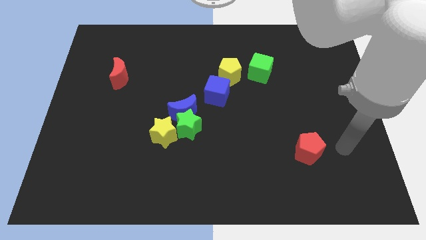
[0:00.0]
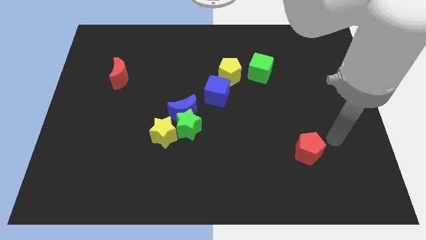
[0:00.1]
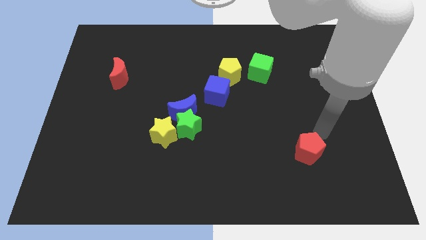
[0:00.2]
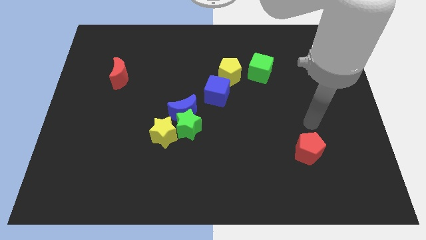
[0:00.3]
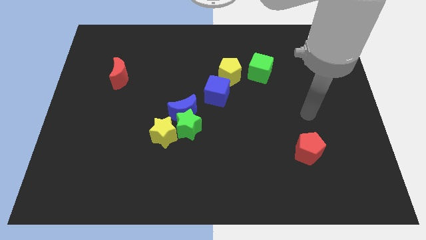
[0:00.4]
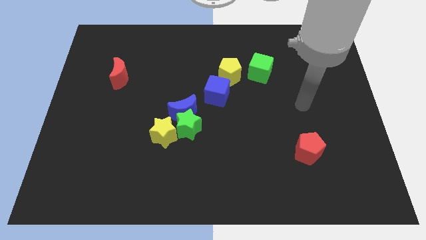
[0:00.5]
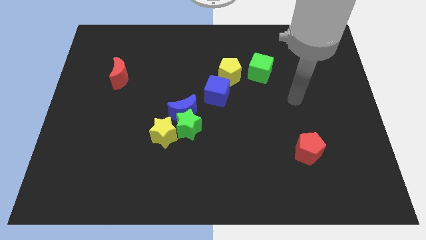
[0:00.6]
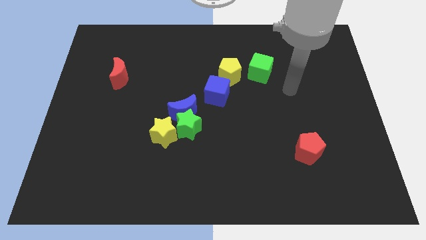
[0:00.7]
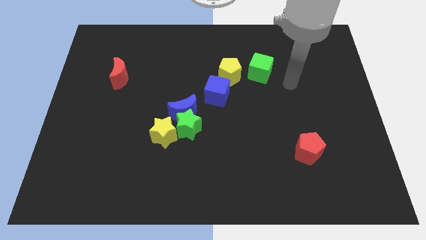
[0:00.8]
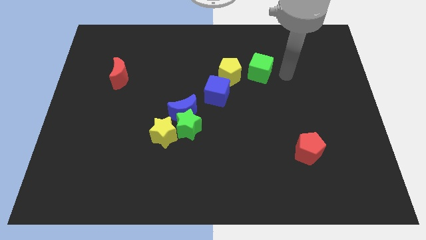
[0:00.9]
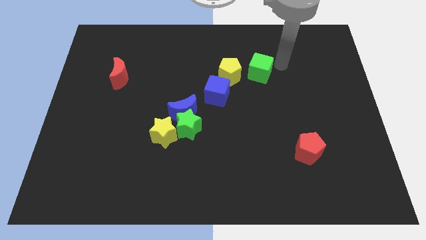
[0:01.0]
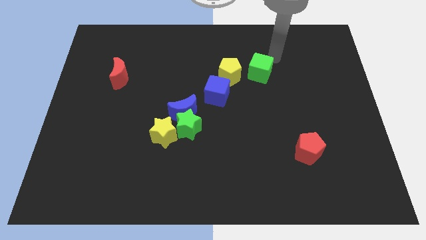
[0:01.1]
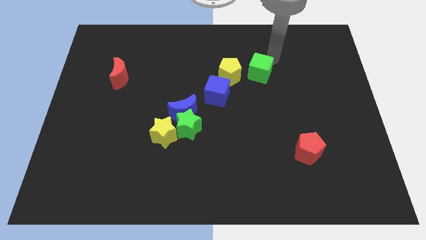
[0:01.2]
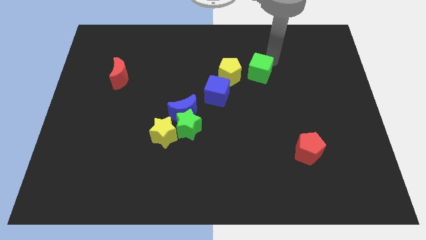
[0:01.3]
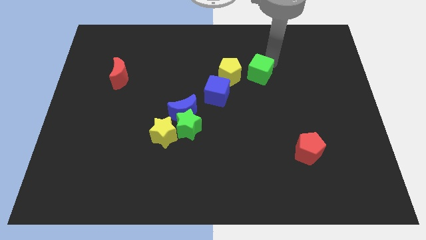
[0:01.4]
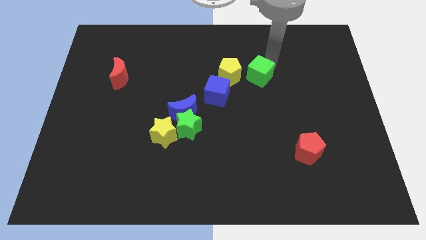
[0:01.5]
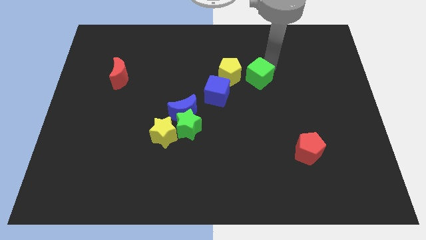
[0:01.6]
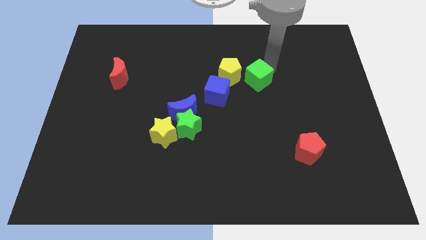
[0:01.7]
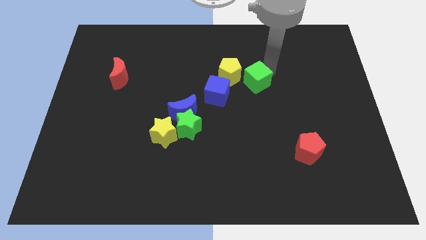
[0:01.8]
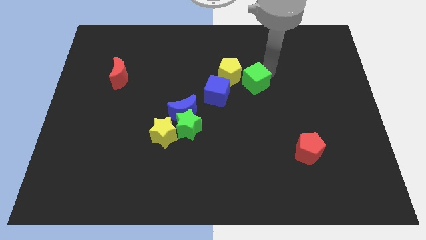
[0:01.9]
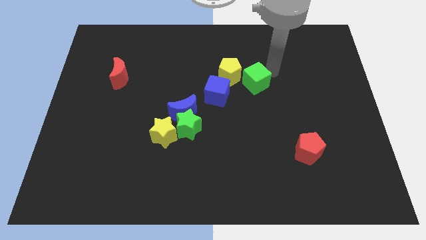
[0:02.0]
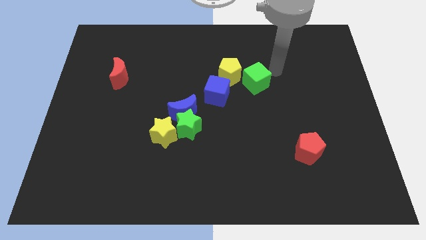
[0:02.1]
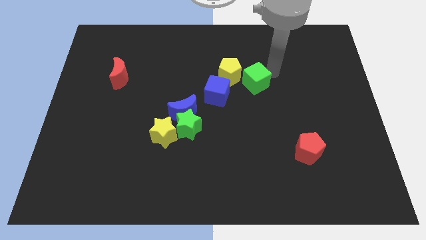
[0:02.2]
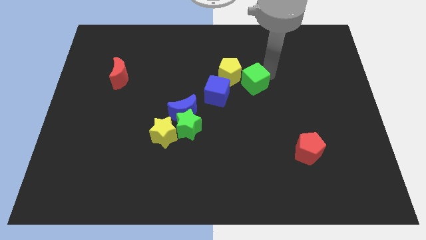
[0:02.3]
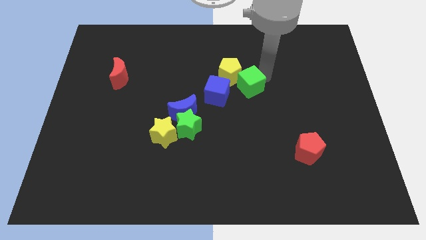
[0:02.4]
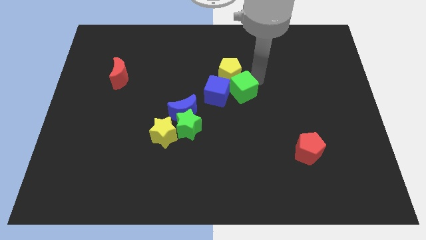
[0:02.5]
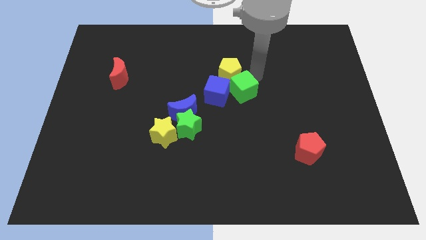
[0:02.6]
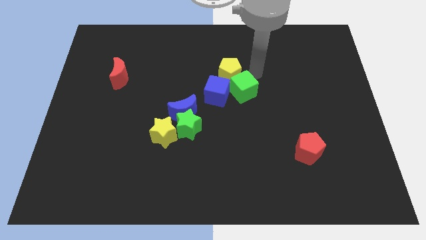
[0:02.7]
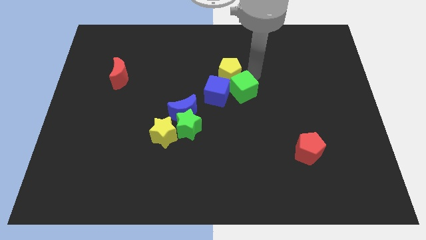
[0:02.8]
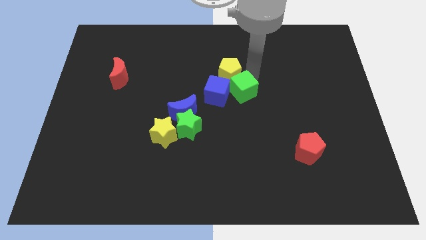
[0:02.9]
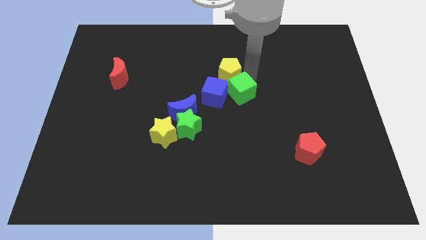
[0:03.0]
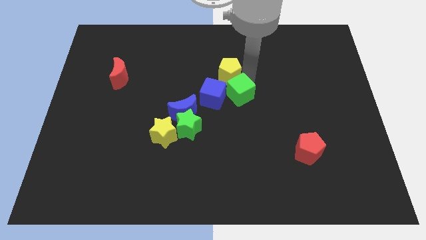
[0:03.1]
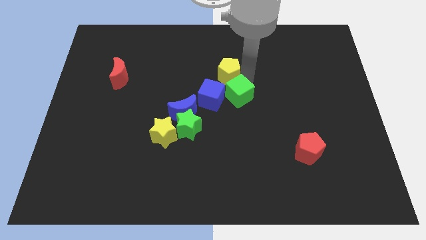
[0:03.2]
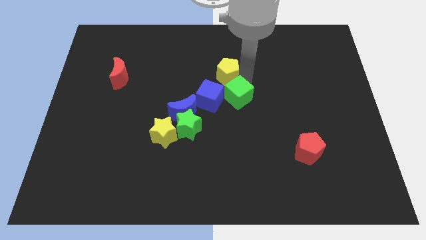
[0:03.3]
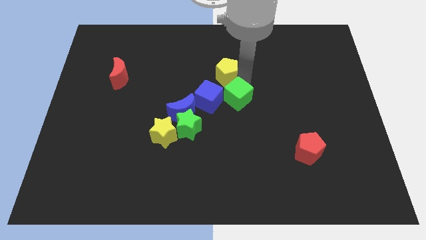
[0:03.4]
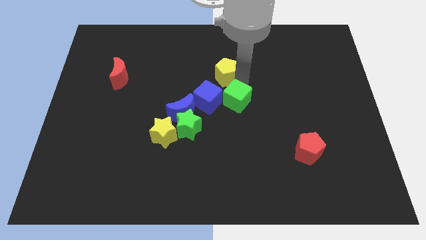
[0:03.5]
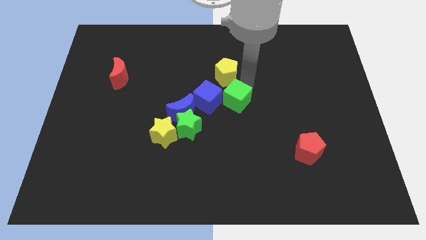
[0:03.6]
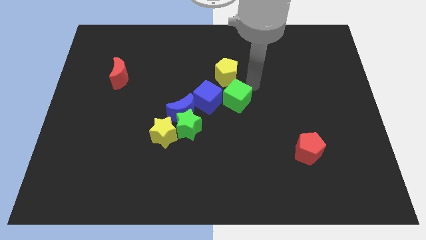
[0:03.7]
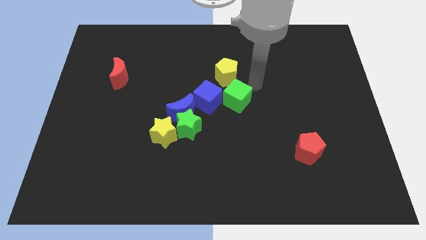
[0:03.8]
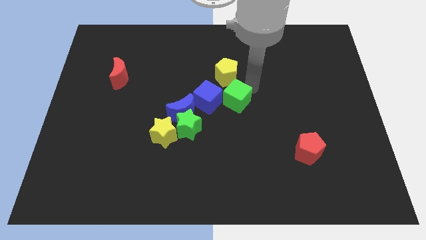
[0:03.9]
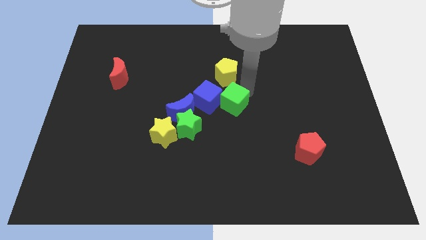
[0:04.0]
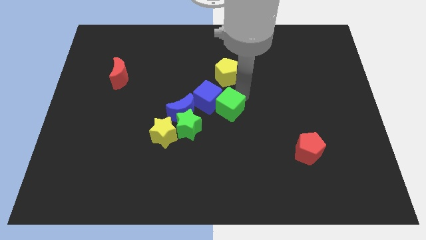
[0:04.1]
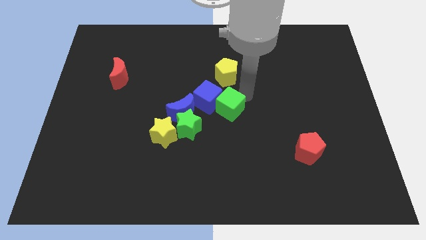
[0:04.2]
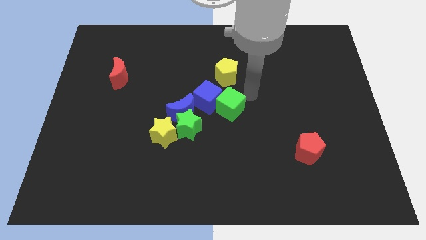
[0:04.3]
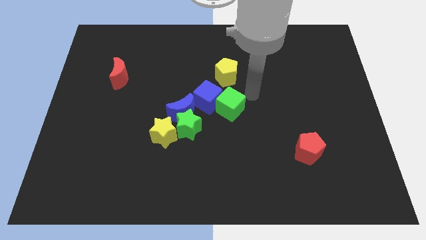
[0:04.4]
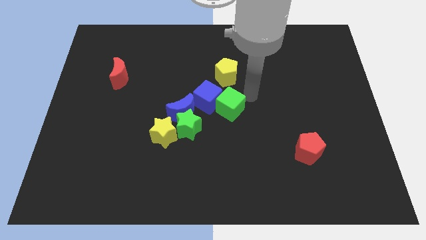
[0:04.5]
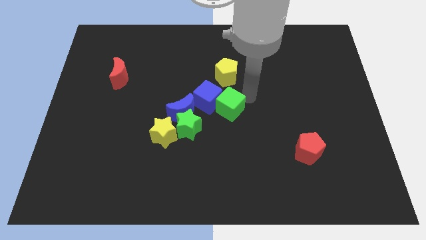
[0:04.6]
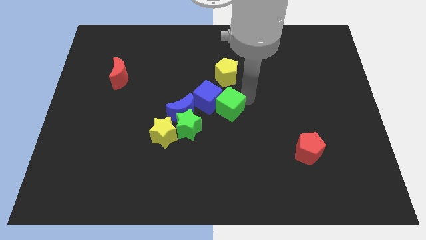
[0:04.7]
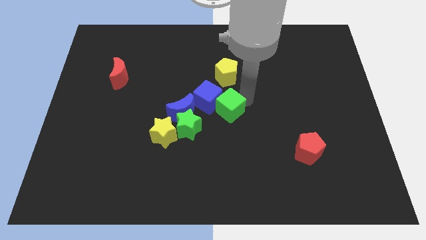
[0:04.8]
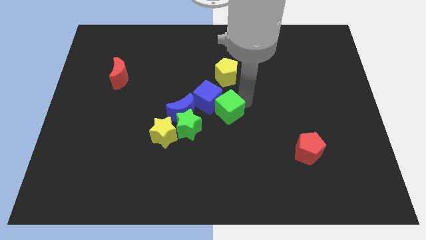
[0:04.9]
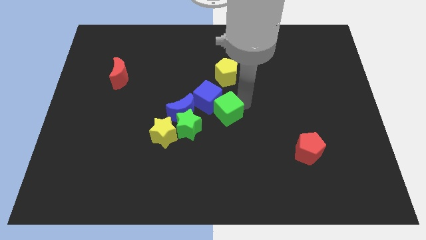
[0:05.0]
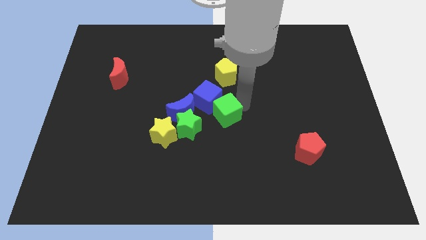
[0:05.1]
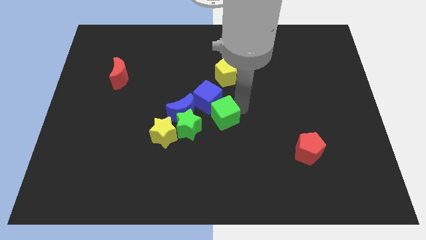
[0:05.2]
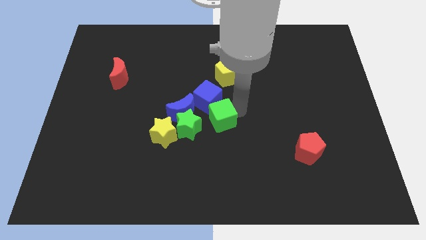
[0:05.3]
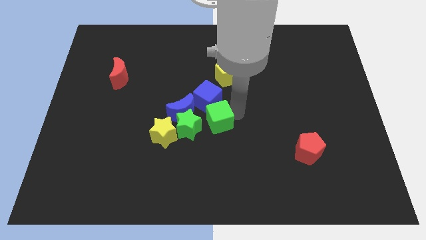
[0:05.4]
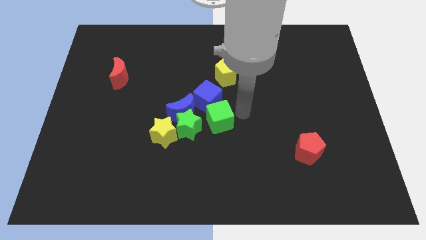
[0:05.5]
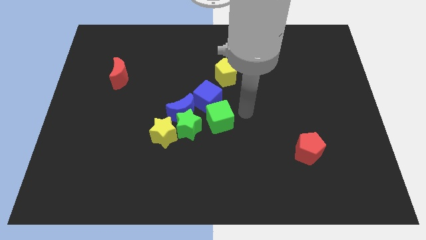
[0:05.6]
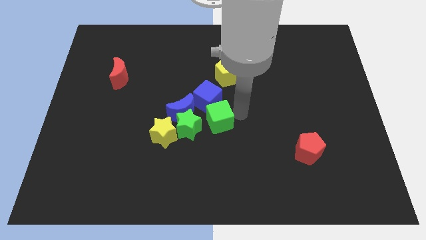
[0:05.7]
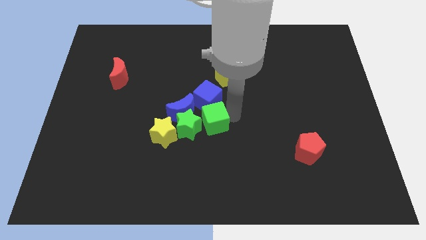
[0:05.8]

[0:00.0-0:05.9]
slide the green cube to the green star

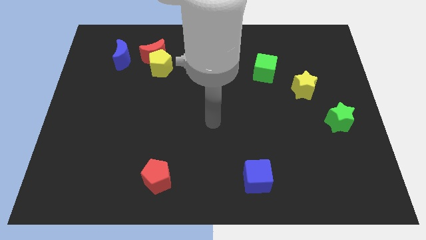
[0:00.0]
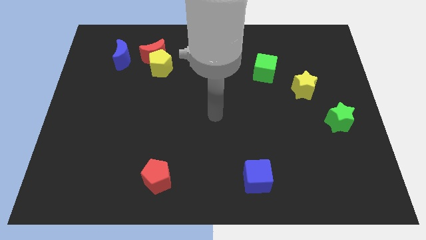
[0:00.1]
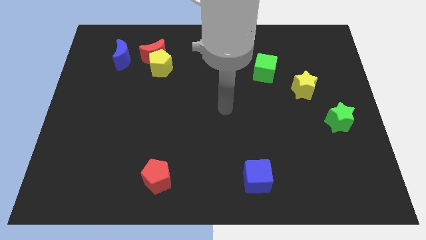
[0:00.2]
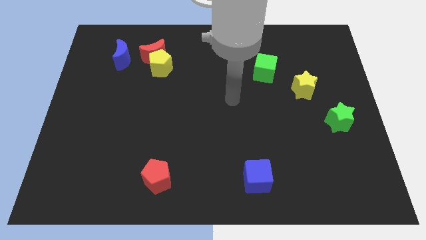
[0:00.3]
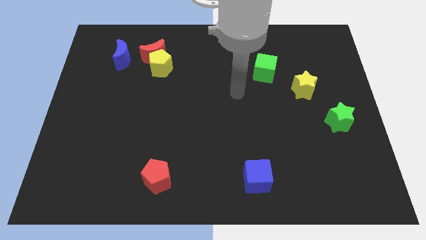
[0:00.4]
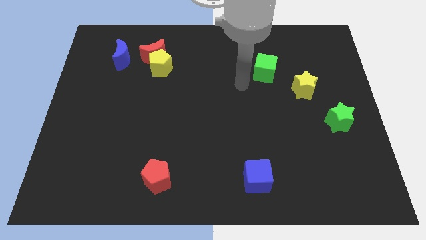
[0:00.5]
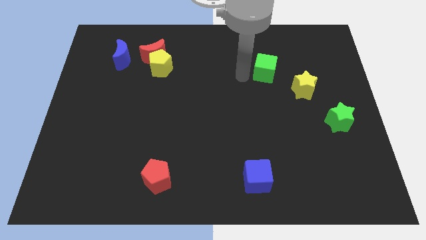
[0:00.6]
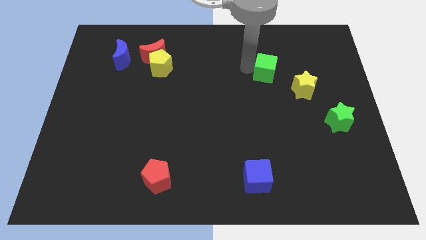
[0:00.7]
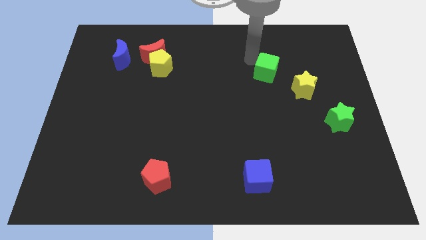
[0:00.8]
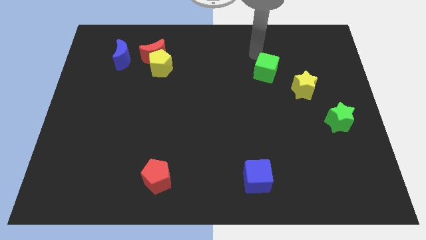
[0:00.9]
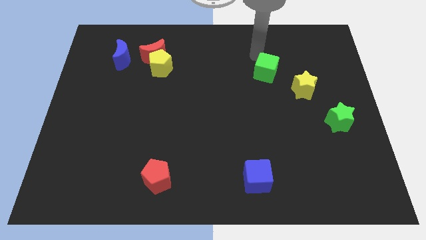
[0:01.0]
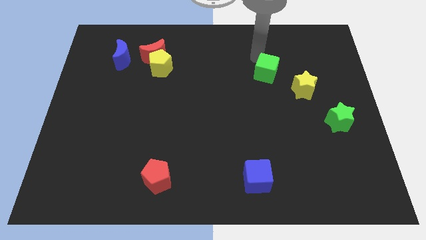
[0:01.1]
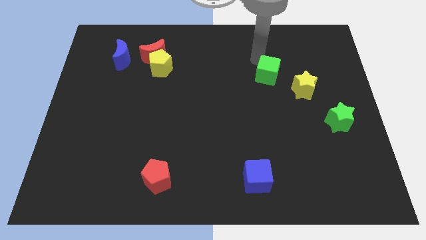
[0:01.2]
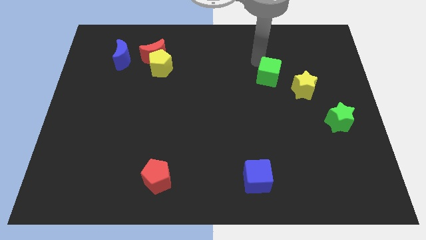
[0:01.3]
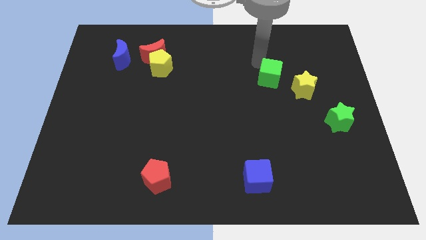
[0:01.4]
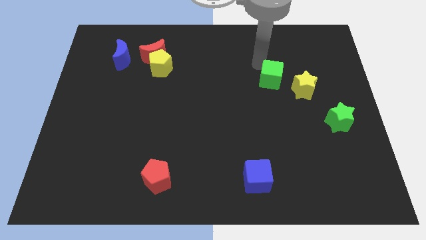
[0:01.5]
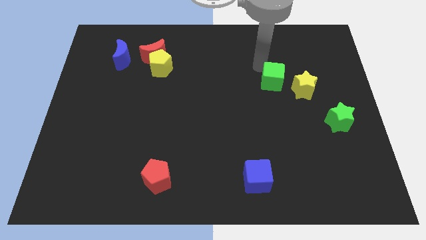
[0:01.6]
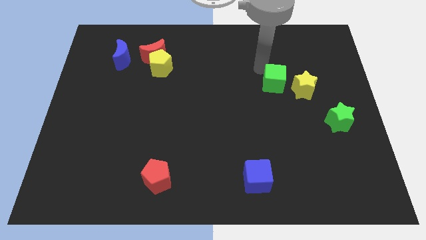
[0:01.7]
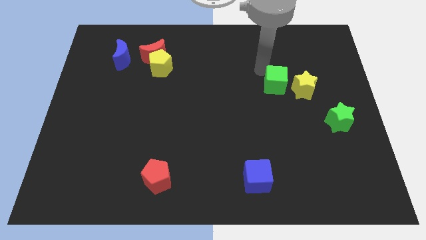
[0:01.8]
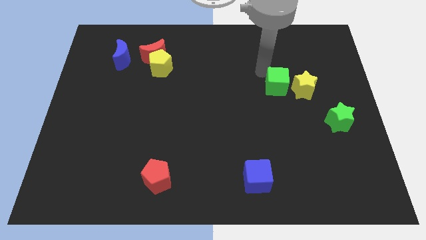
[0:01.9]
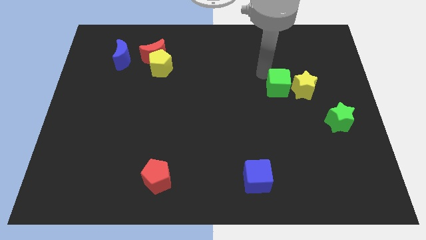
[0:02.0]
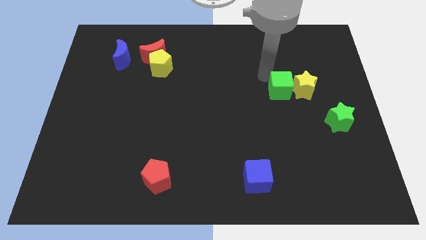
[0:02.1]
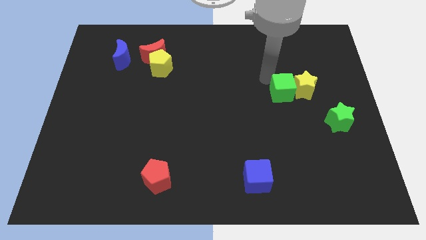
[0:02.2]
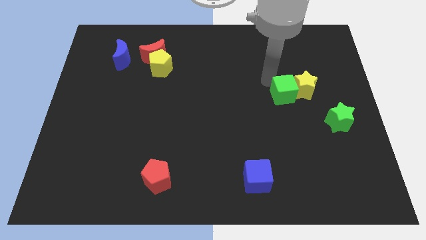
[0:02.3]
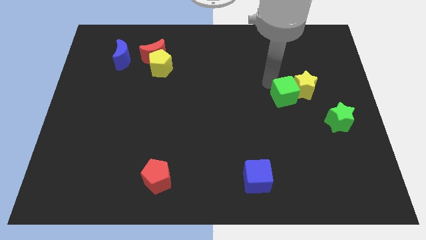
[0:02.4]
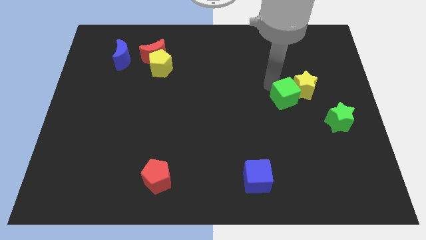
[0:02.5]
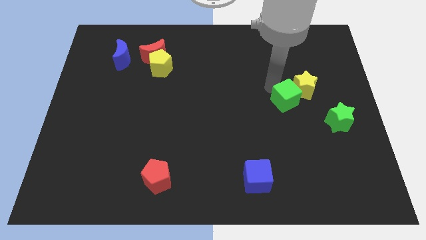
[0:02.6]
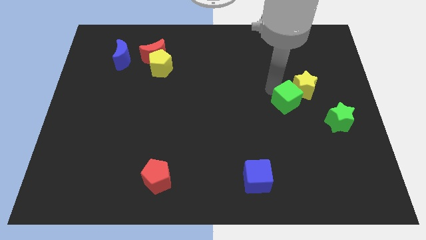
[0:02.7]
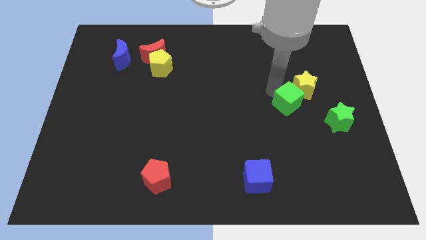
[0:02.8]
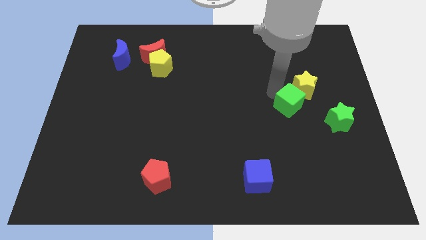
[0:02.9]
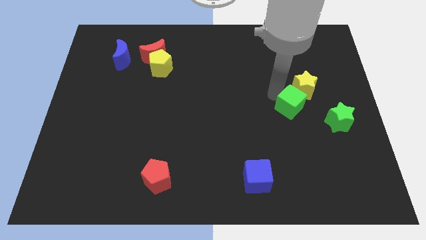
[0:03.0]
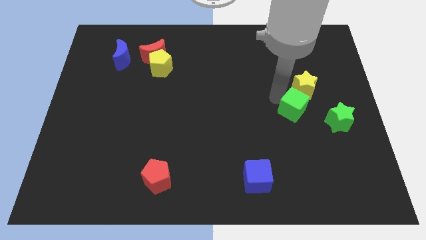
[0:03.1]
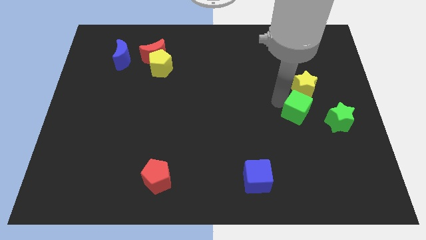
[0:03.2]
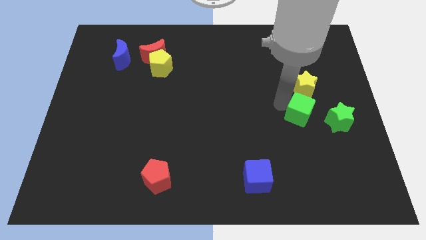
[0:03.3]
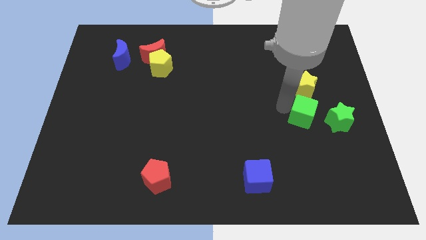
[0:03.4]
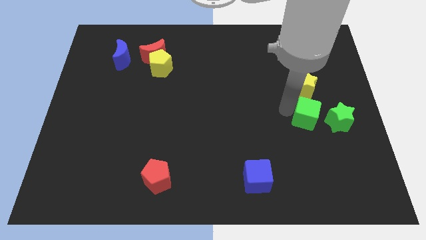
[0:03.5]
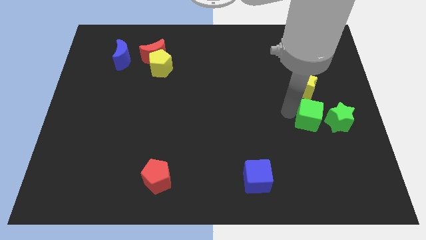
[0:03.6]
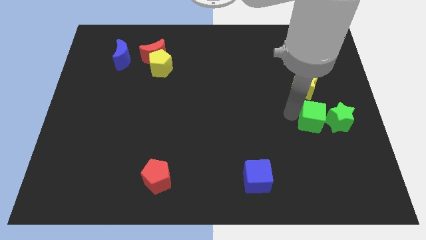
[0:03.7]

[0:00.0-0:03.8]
put the green cube towards the green star
